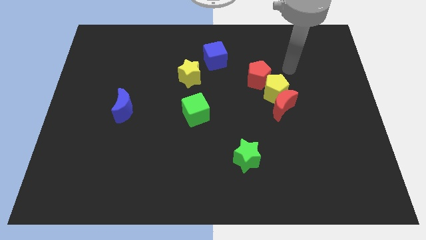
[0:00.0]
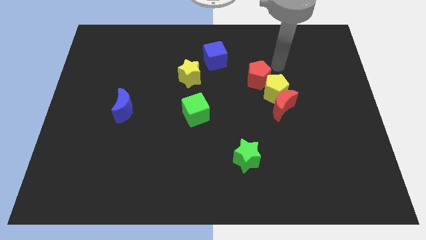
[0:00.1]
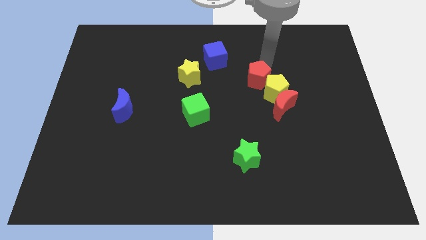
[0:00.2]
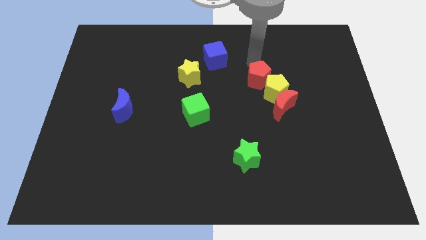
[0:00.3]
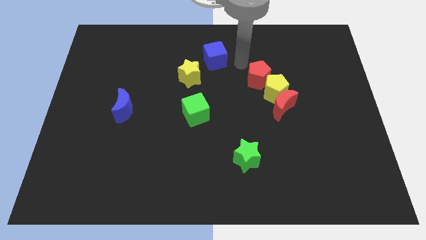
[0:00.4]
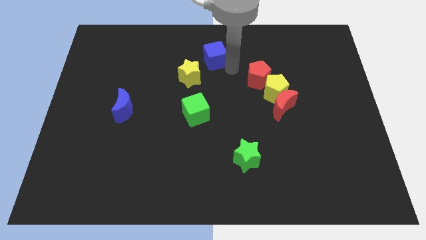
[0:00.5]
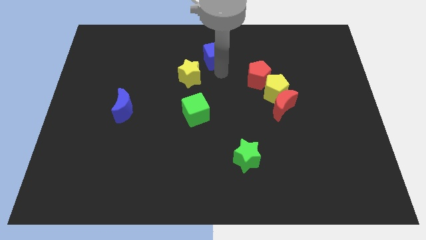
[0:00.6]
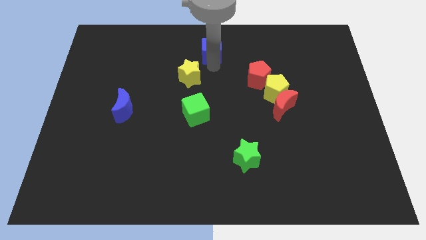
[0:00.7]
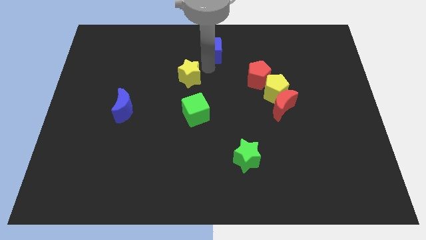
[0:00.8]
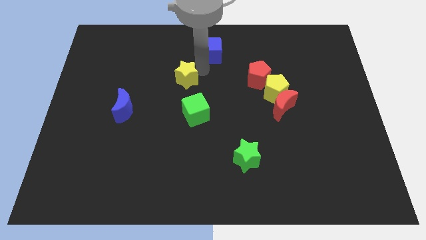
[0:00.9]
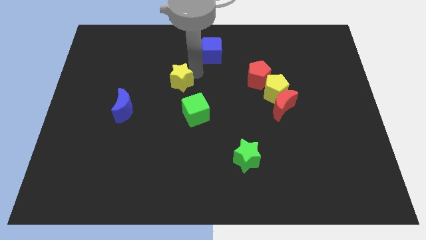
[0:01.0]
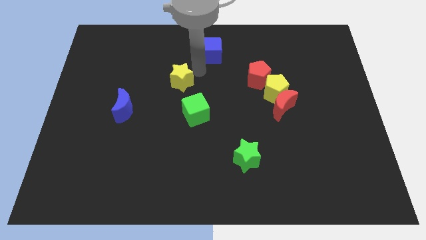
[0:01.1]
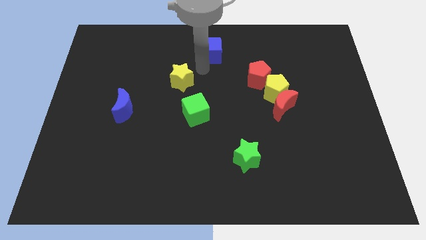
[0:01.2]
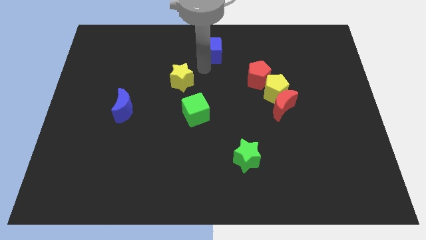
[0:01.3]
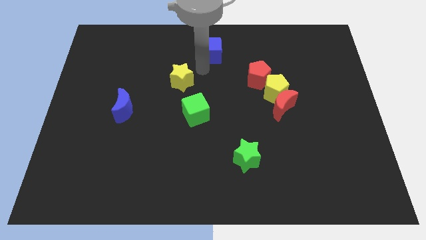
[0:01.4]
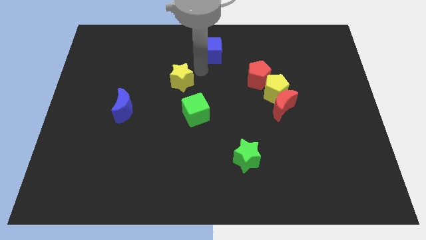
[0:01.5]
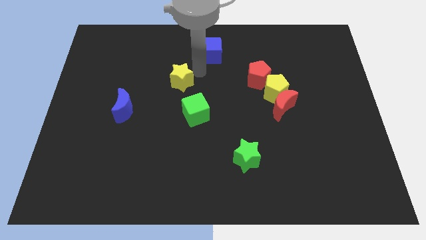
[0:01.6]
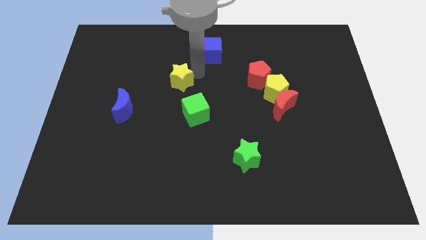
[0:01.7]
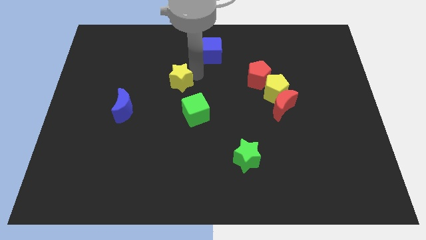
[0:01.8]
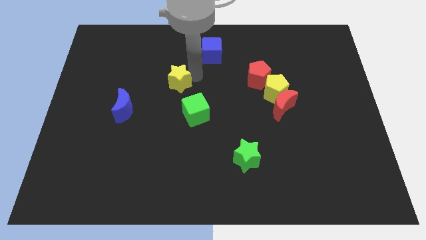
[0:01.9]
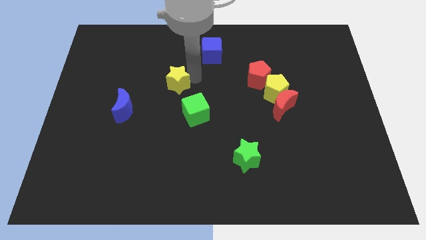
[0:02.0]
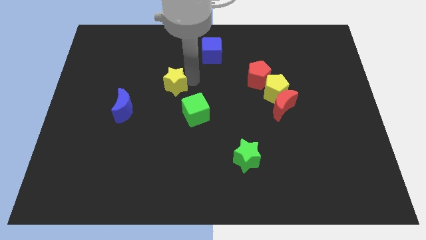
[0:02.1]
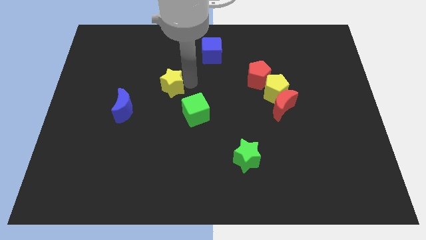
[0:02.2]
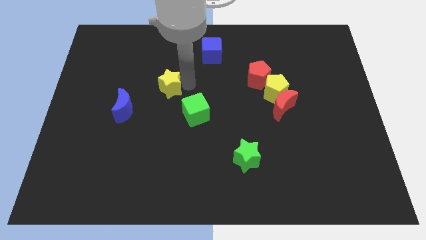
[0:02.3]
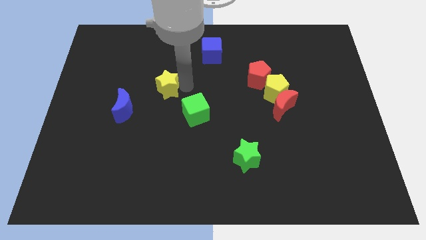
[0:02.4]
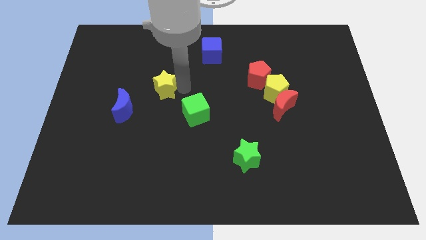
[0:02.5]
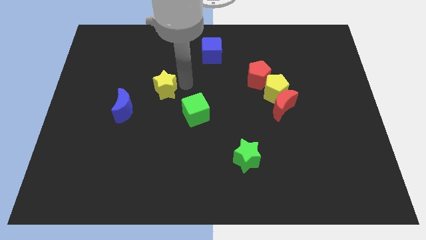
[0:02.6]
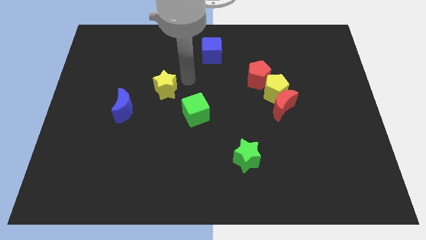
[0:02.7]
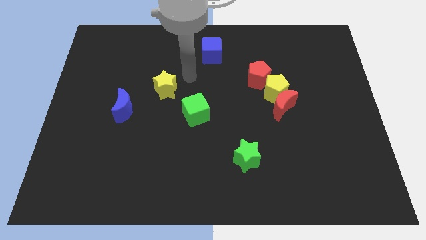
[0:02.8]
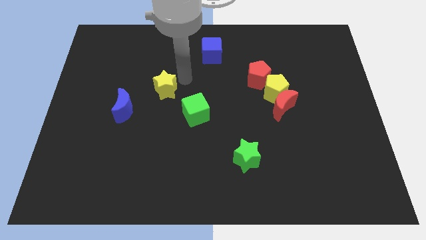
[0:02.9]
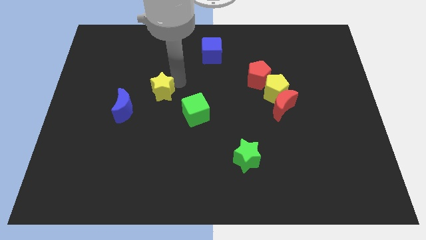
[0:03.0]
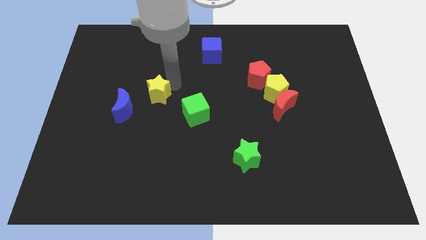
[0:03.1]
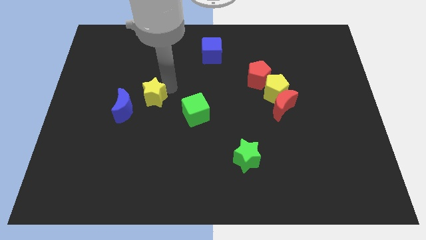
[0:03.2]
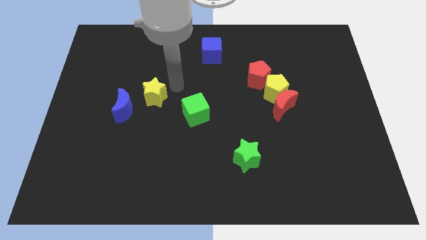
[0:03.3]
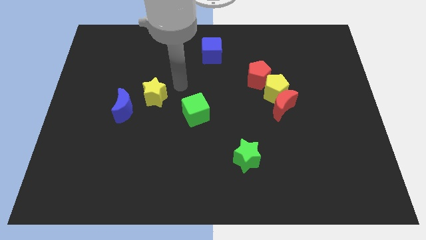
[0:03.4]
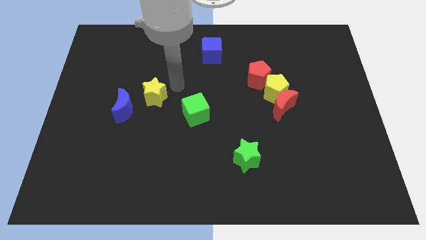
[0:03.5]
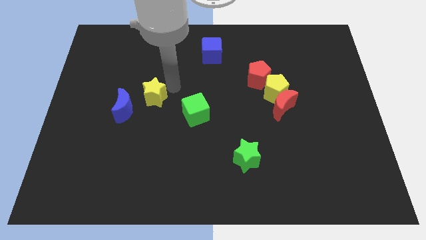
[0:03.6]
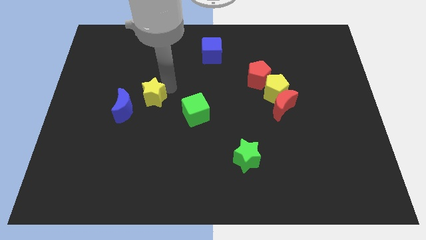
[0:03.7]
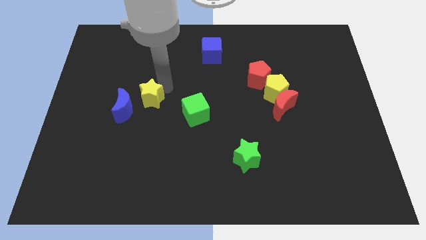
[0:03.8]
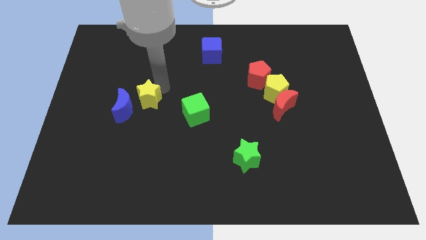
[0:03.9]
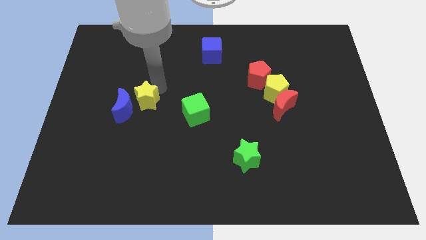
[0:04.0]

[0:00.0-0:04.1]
push the yellow star towards the blue moon

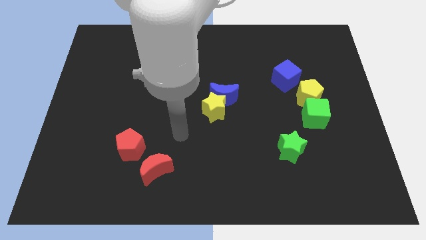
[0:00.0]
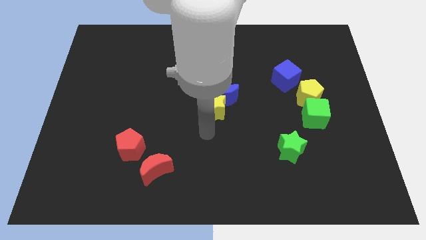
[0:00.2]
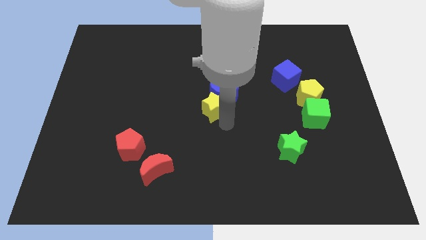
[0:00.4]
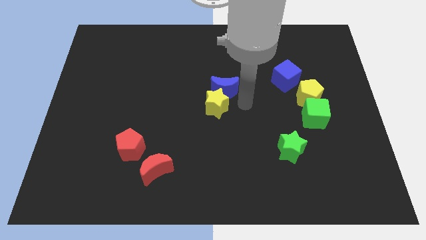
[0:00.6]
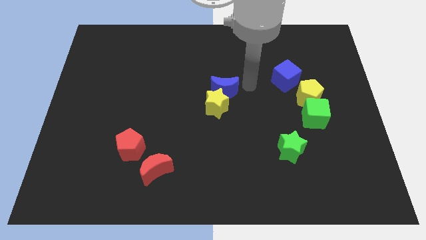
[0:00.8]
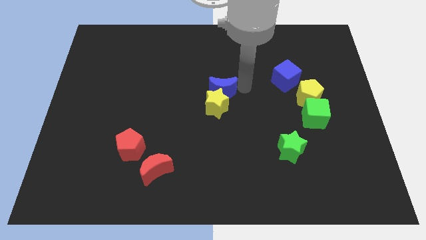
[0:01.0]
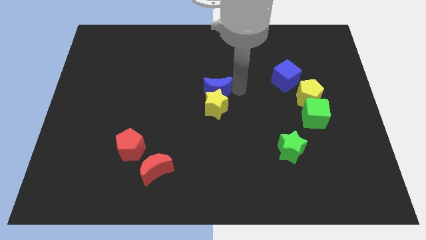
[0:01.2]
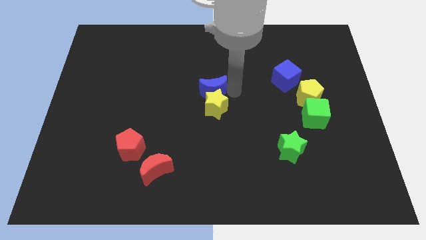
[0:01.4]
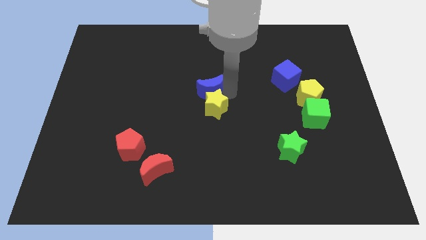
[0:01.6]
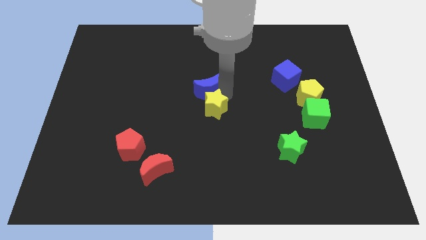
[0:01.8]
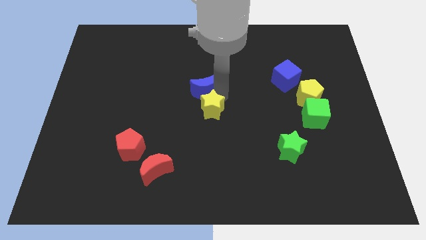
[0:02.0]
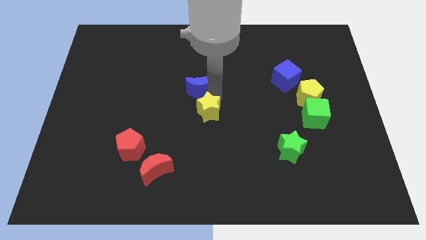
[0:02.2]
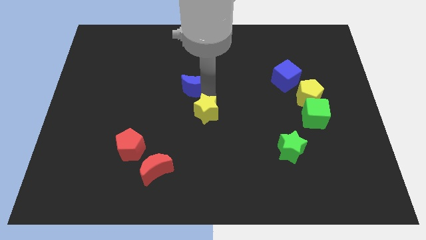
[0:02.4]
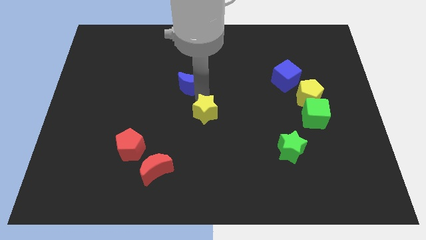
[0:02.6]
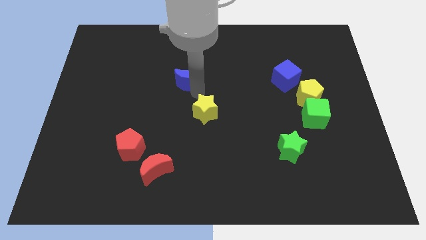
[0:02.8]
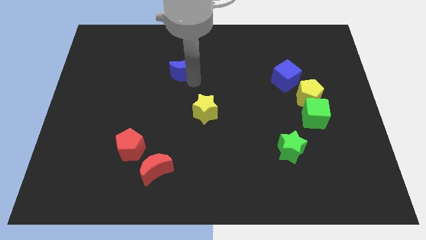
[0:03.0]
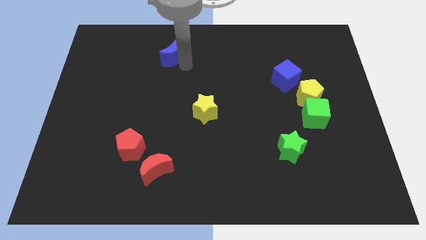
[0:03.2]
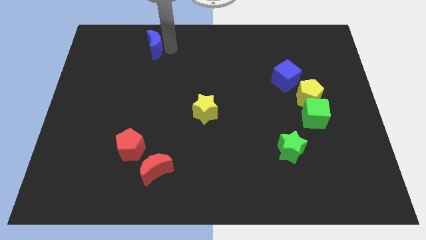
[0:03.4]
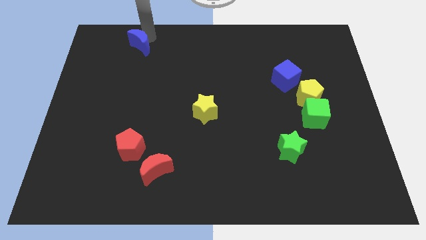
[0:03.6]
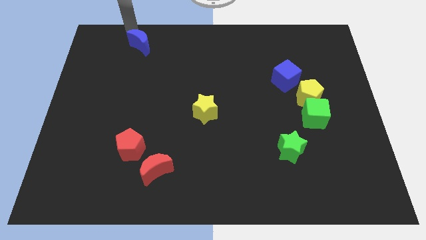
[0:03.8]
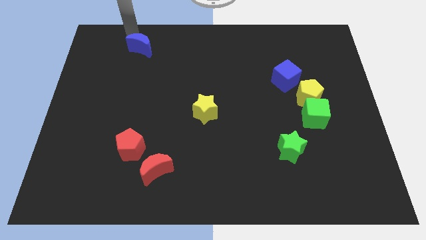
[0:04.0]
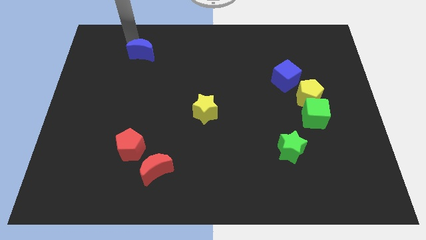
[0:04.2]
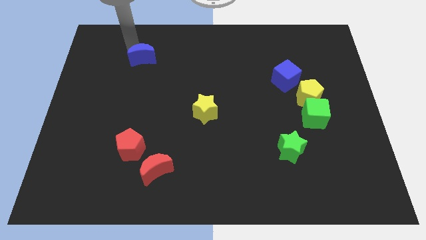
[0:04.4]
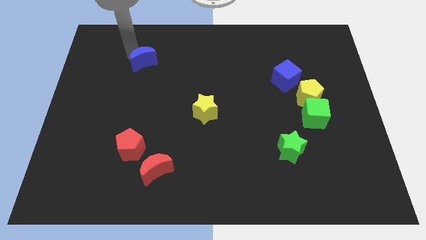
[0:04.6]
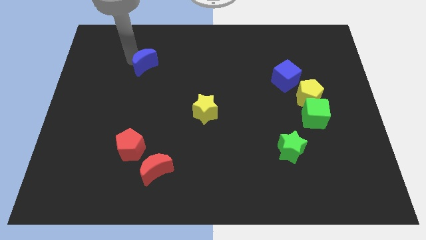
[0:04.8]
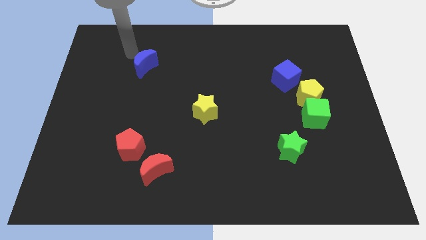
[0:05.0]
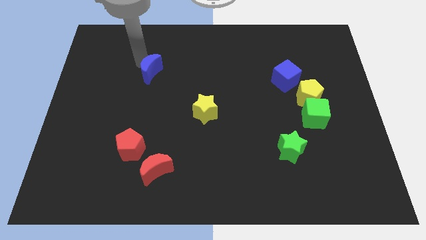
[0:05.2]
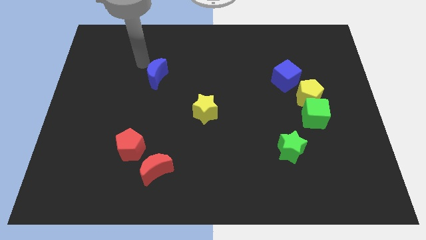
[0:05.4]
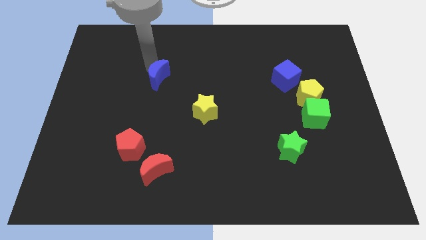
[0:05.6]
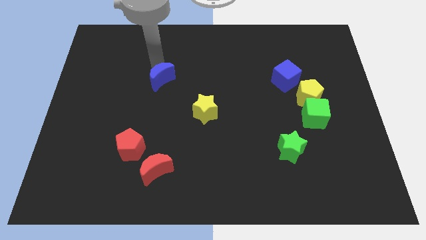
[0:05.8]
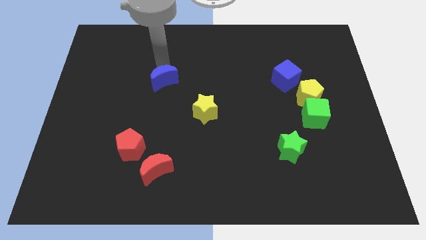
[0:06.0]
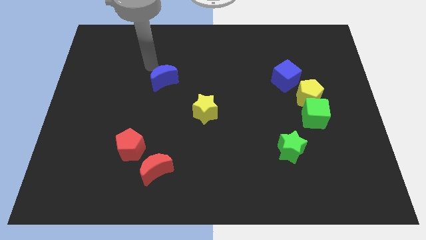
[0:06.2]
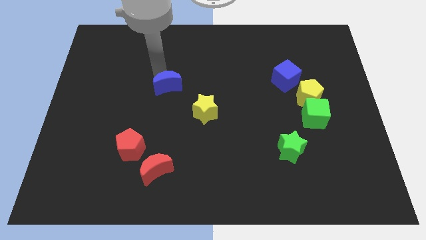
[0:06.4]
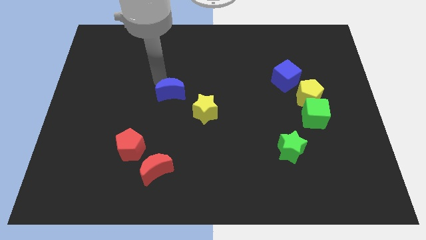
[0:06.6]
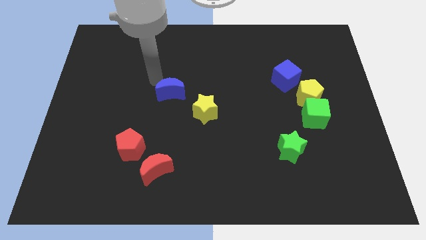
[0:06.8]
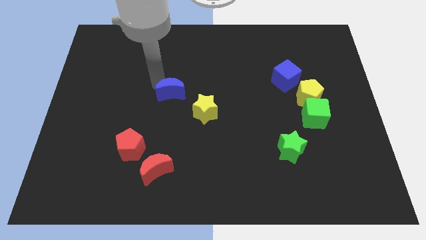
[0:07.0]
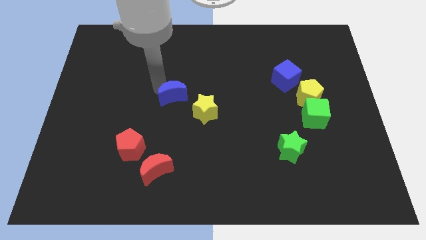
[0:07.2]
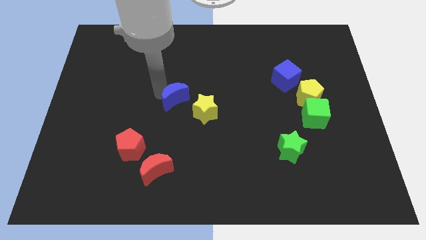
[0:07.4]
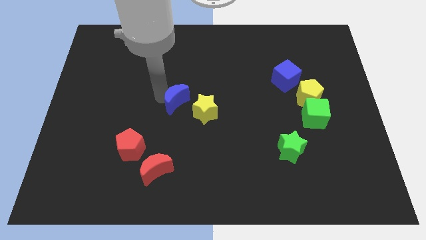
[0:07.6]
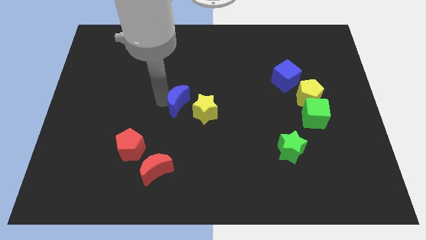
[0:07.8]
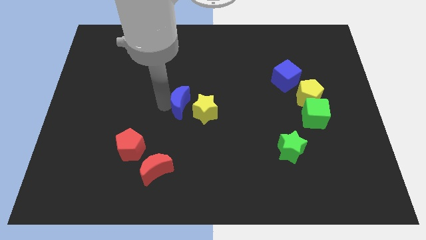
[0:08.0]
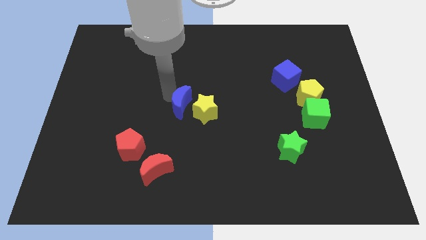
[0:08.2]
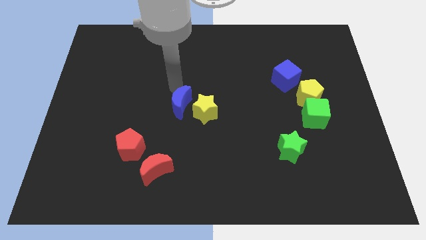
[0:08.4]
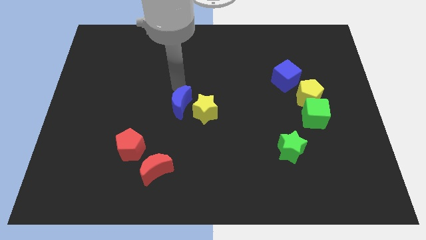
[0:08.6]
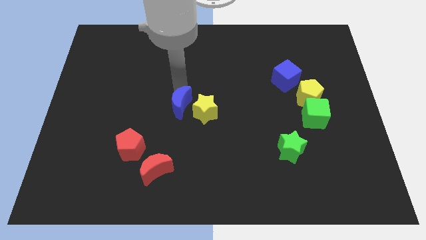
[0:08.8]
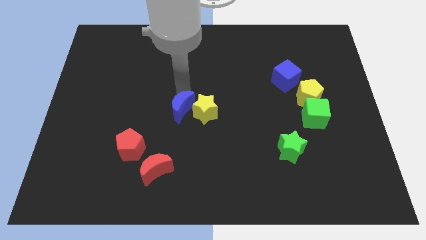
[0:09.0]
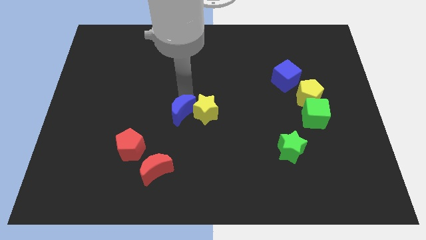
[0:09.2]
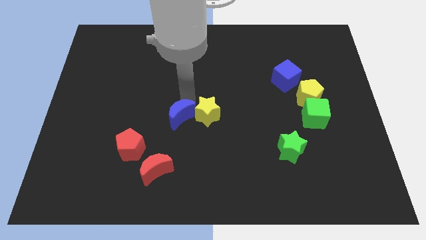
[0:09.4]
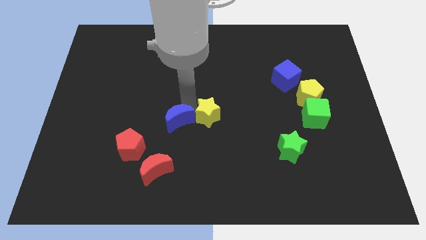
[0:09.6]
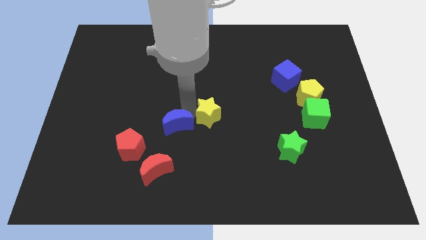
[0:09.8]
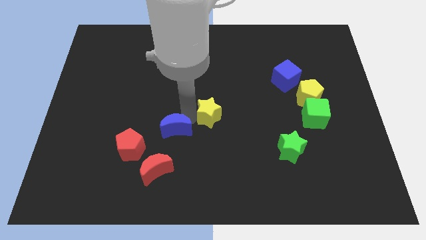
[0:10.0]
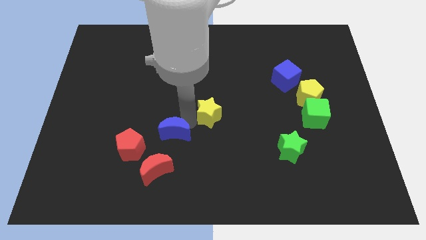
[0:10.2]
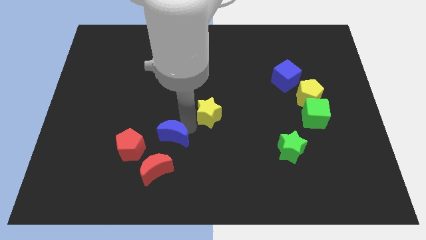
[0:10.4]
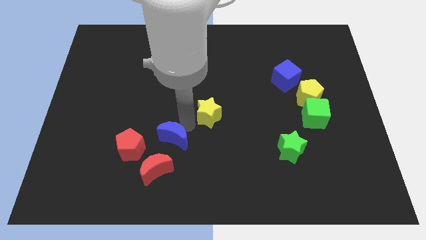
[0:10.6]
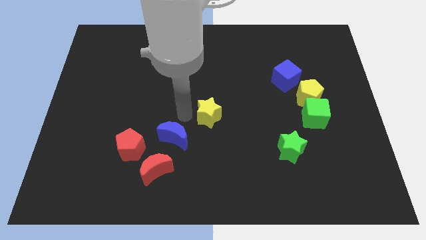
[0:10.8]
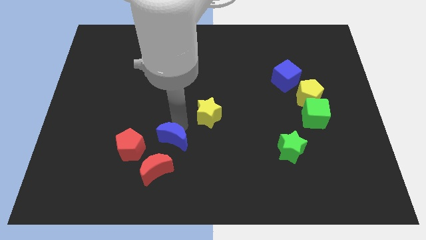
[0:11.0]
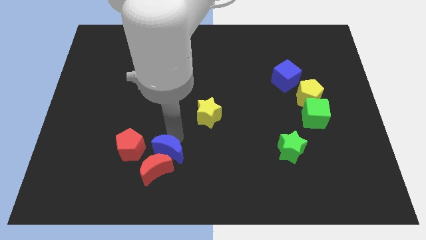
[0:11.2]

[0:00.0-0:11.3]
slide the blue moon next to the red moon
